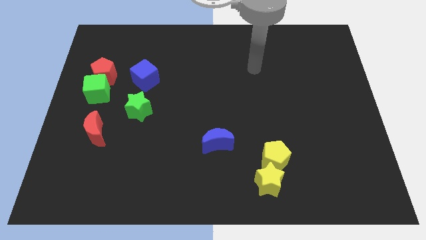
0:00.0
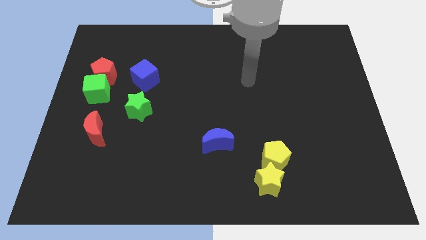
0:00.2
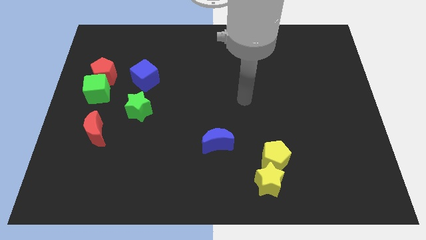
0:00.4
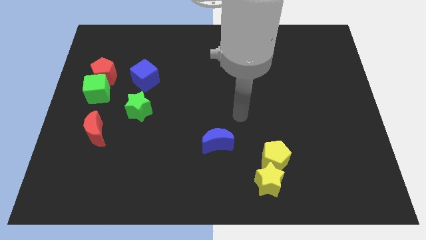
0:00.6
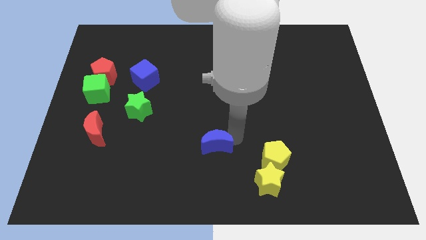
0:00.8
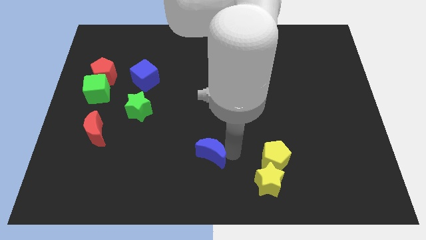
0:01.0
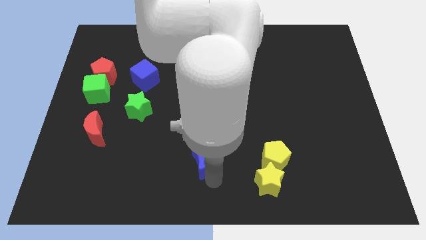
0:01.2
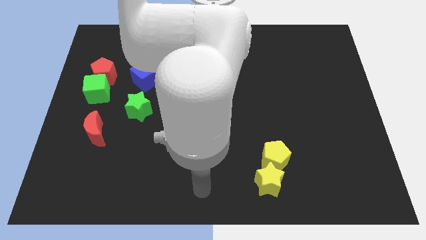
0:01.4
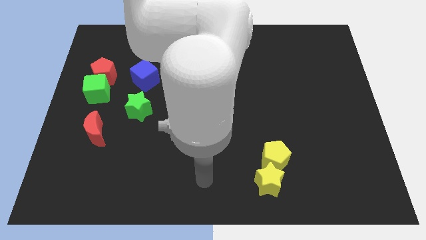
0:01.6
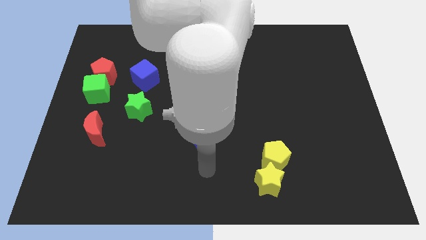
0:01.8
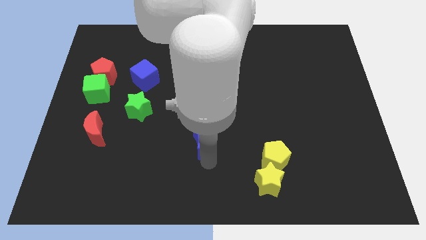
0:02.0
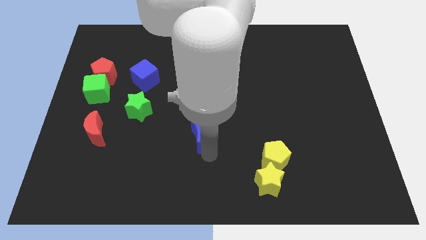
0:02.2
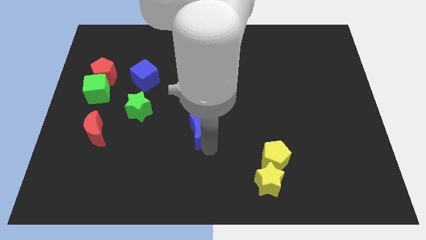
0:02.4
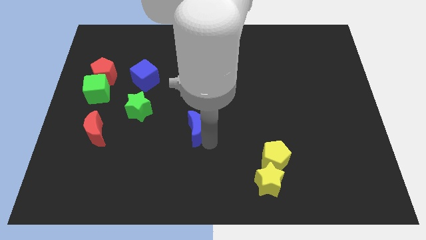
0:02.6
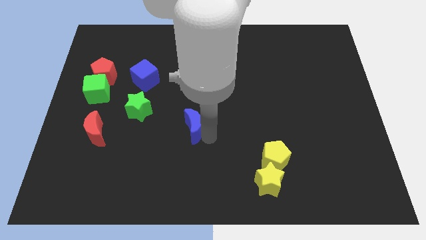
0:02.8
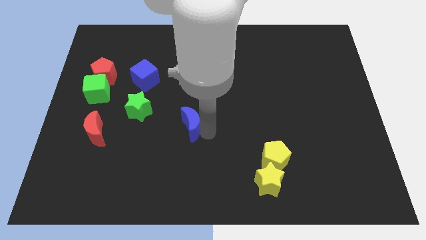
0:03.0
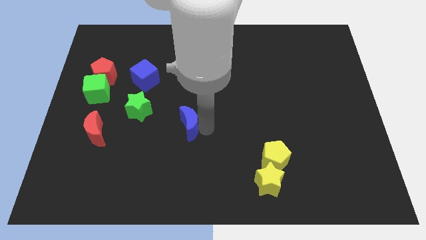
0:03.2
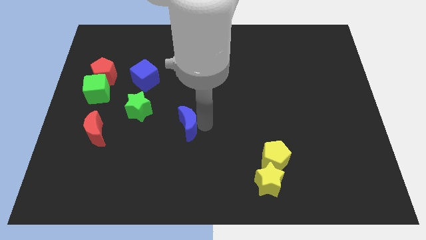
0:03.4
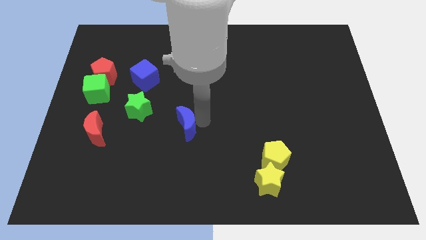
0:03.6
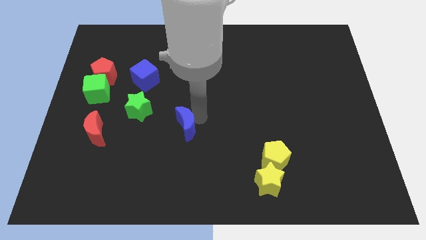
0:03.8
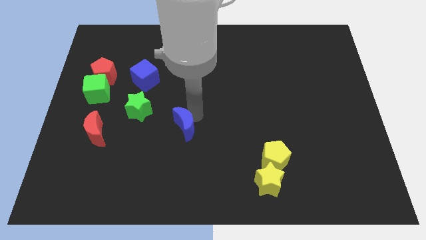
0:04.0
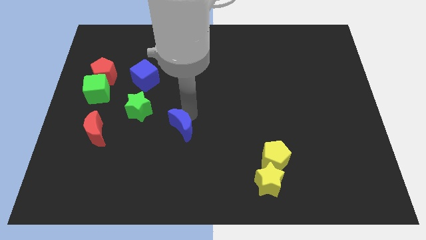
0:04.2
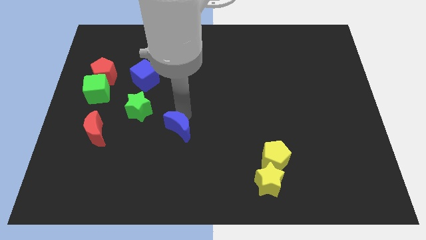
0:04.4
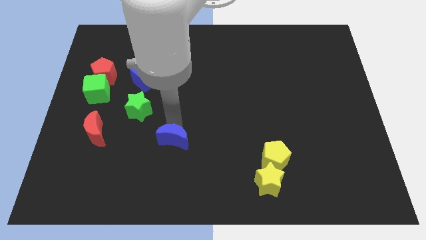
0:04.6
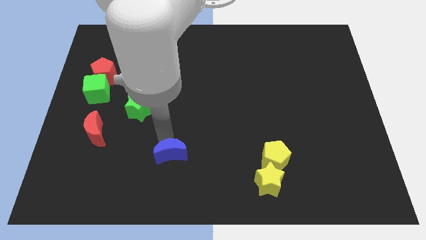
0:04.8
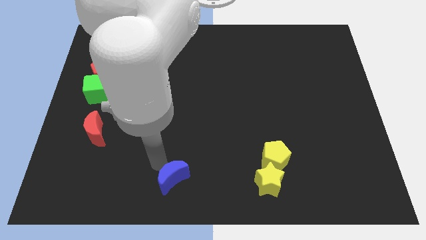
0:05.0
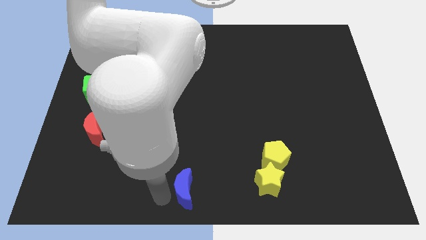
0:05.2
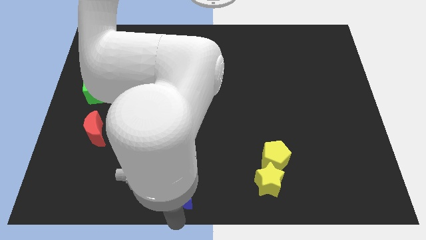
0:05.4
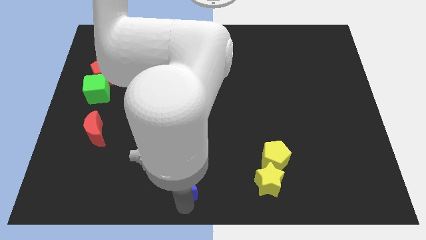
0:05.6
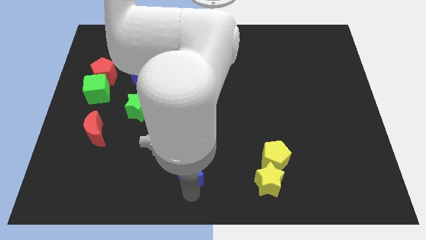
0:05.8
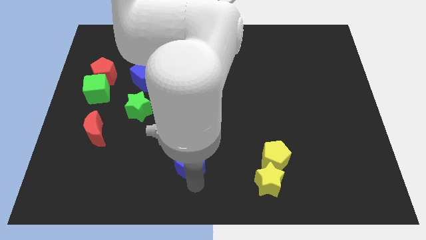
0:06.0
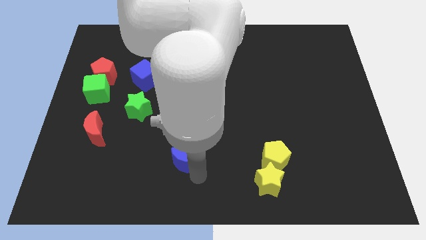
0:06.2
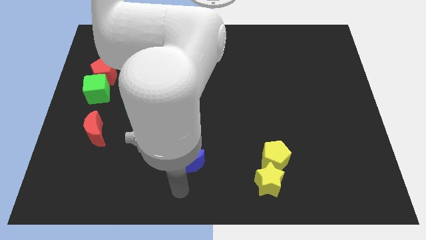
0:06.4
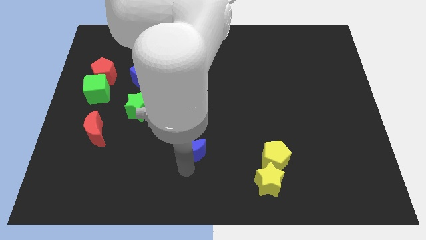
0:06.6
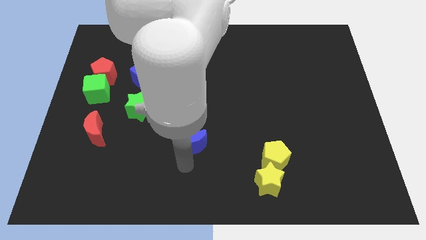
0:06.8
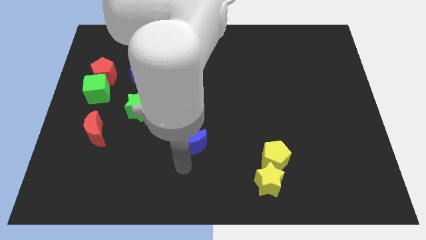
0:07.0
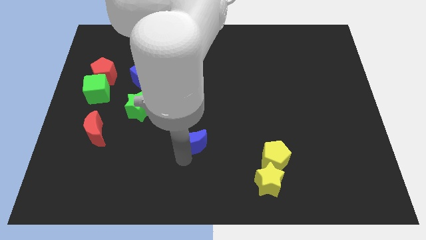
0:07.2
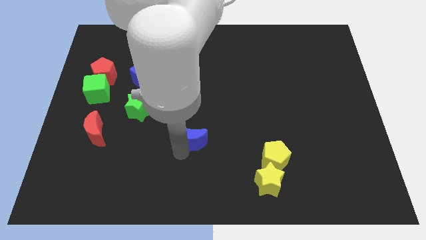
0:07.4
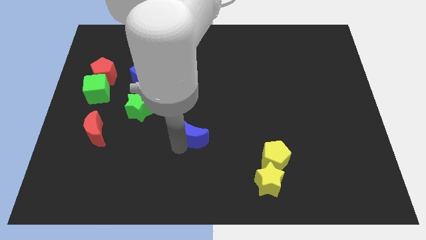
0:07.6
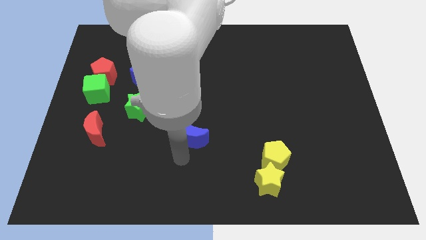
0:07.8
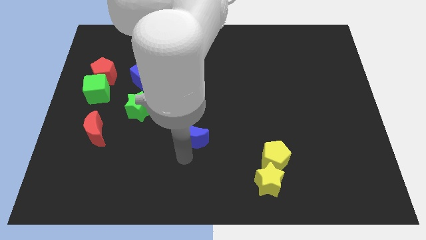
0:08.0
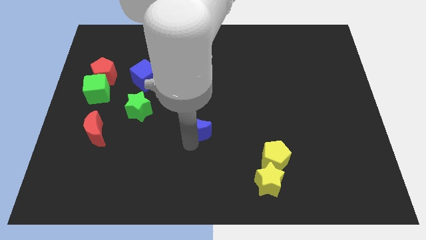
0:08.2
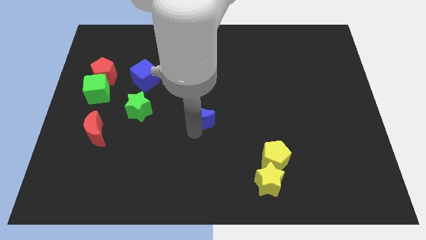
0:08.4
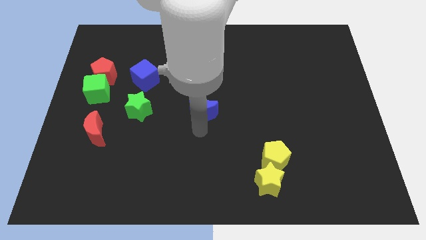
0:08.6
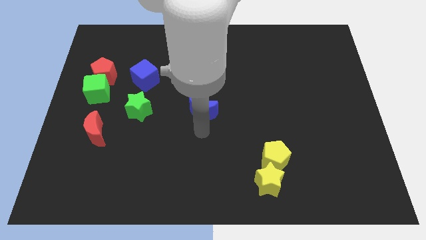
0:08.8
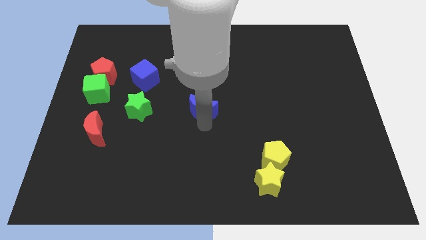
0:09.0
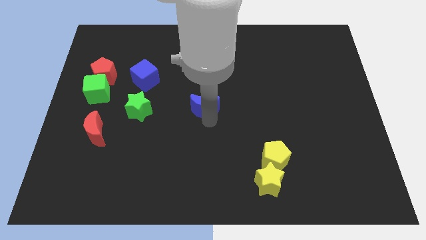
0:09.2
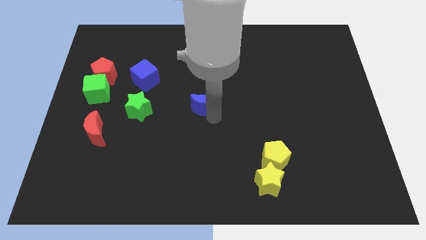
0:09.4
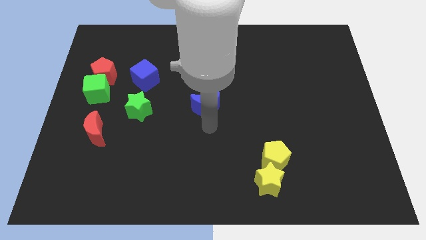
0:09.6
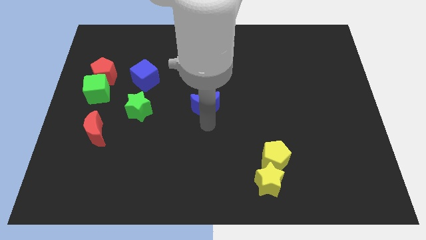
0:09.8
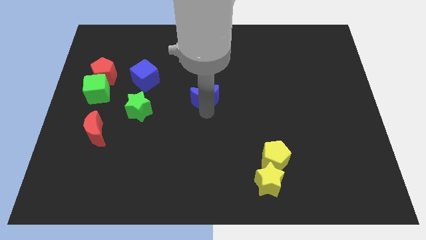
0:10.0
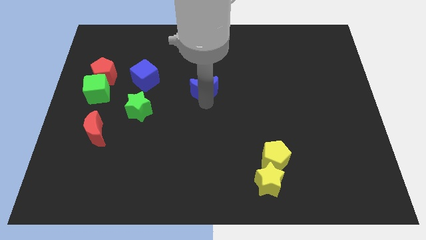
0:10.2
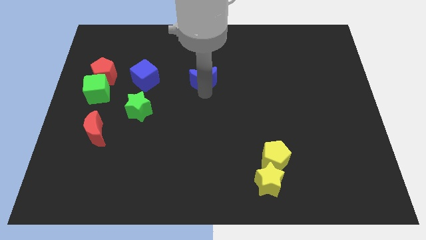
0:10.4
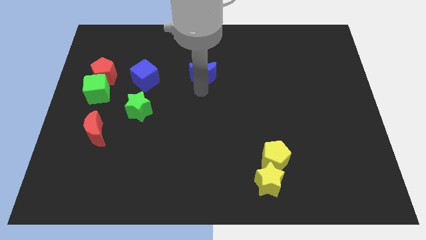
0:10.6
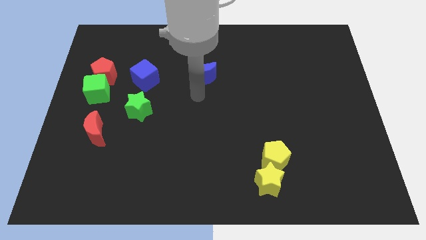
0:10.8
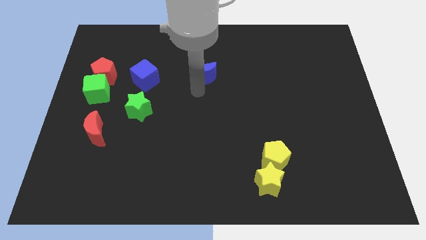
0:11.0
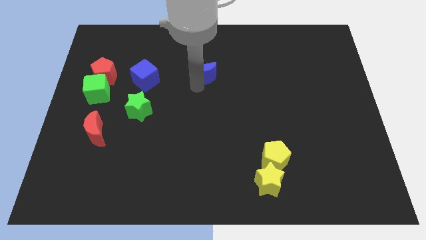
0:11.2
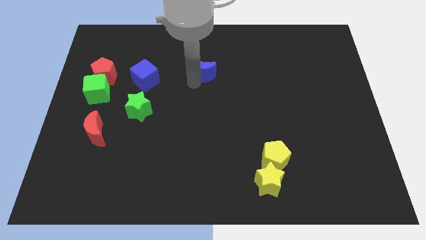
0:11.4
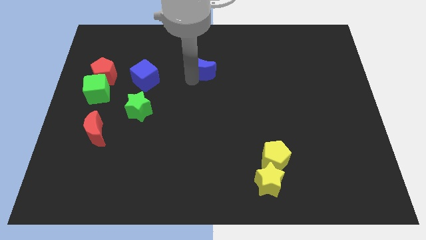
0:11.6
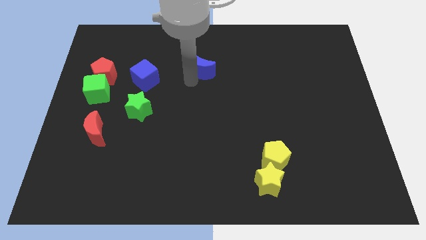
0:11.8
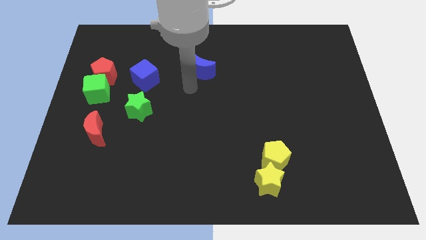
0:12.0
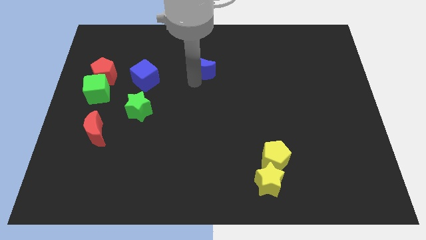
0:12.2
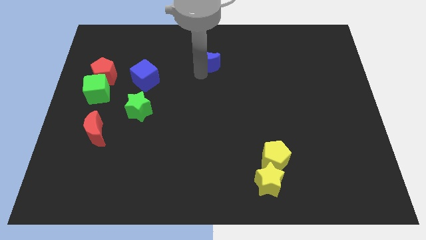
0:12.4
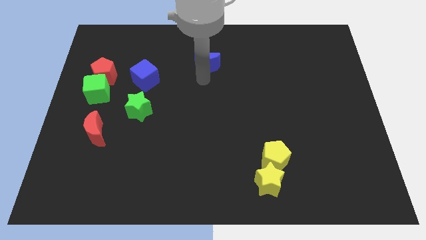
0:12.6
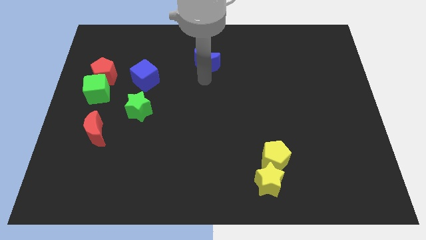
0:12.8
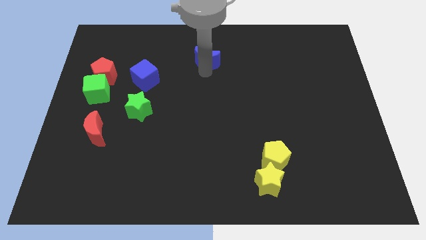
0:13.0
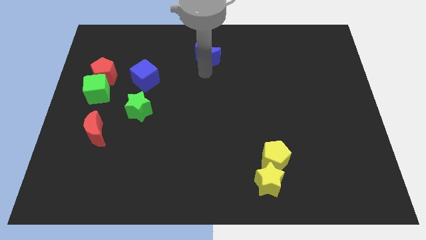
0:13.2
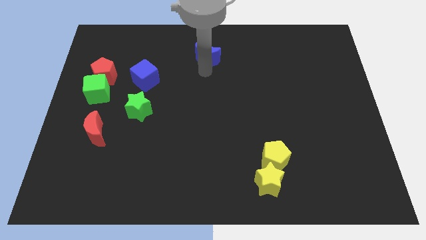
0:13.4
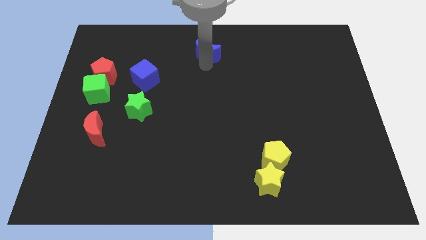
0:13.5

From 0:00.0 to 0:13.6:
push the blue moon to the top side

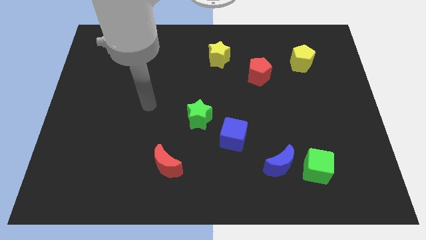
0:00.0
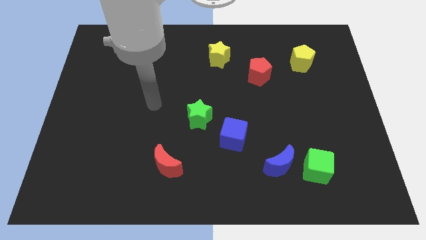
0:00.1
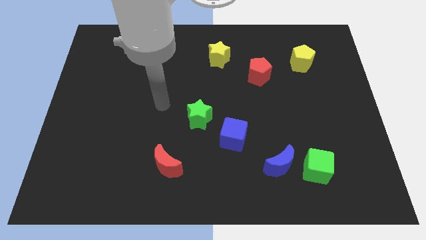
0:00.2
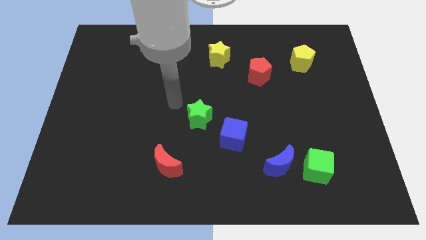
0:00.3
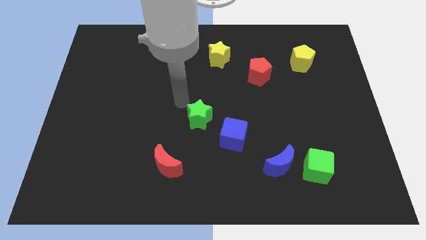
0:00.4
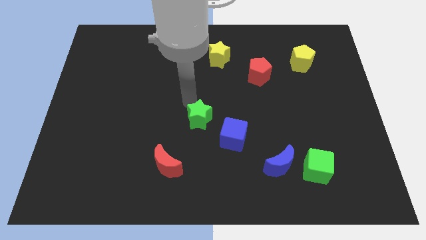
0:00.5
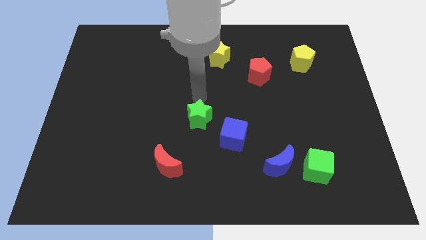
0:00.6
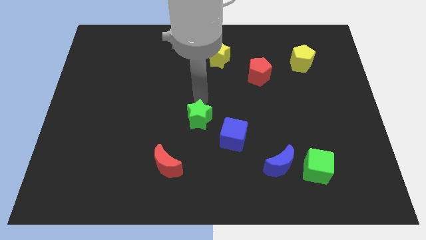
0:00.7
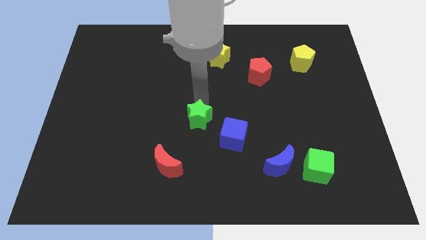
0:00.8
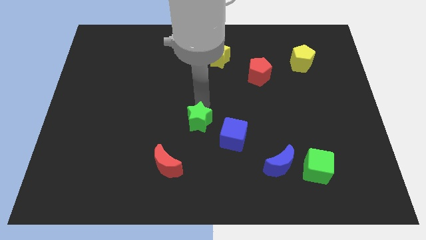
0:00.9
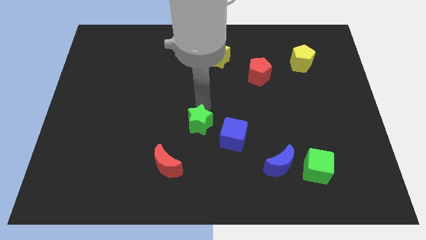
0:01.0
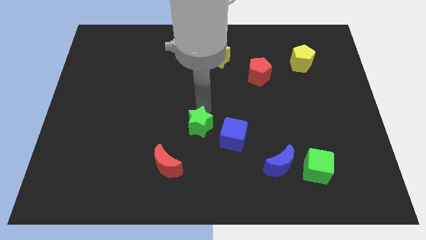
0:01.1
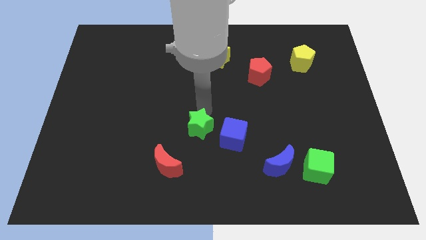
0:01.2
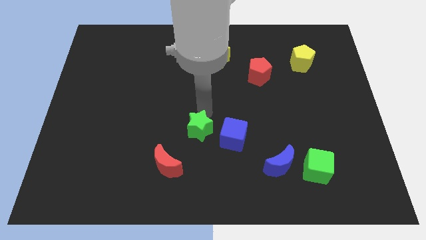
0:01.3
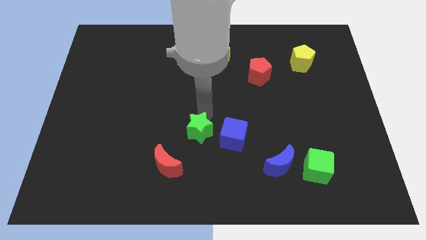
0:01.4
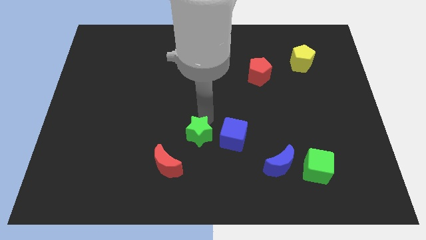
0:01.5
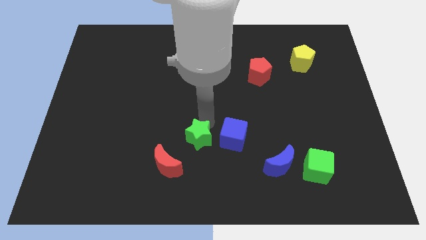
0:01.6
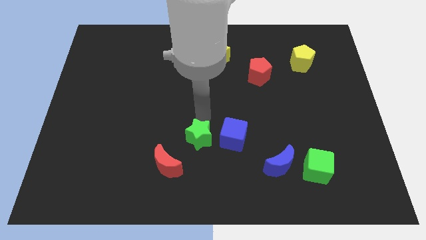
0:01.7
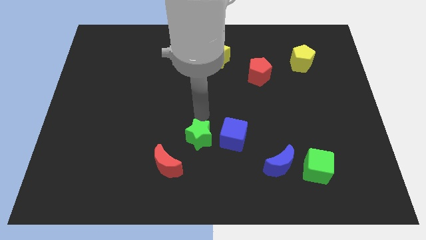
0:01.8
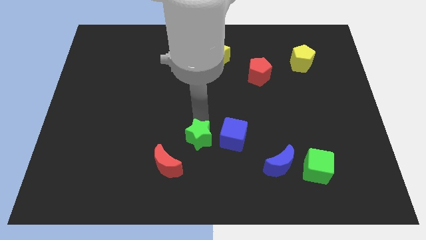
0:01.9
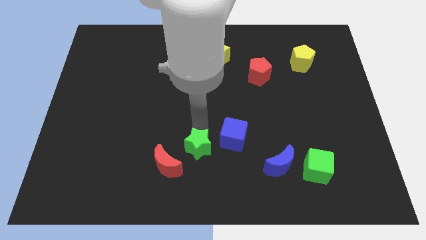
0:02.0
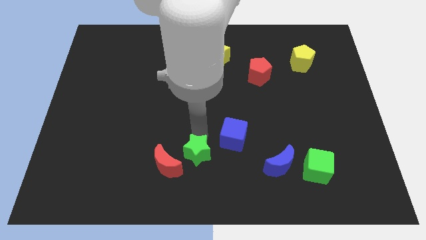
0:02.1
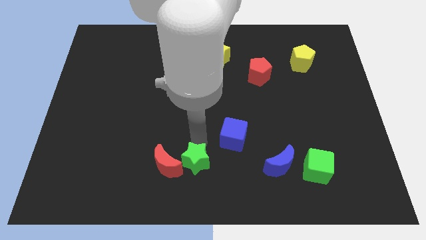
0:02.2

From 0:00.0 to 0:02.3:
push the green star to the bottom
